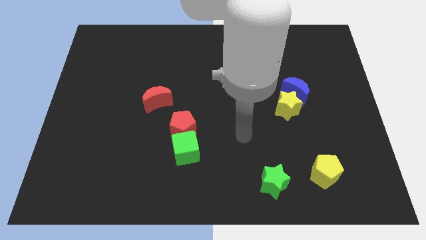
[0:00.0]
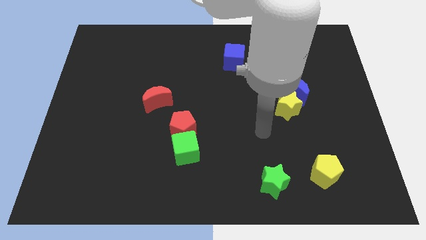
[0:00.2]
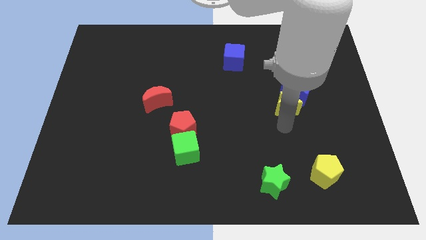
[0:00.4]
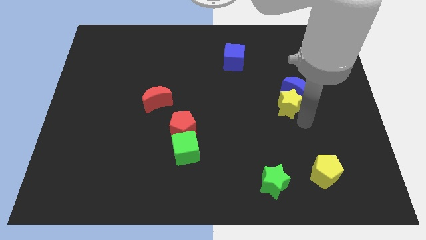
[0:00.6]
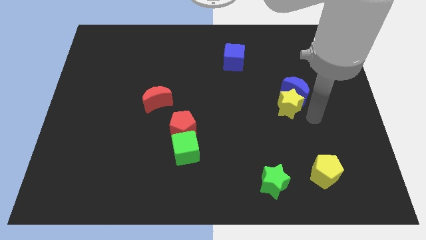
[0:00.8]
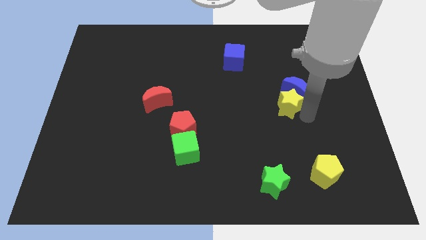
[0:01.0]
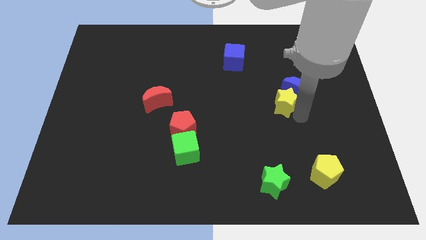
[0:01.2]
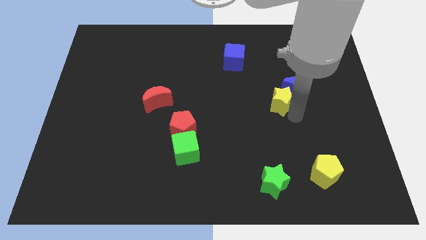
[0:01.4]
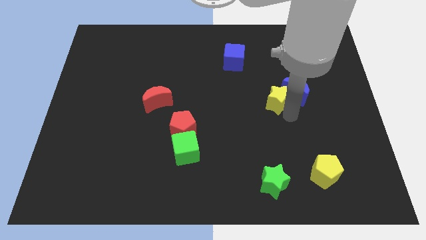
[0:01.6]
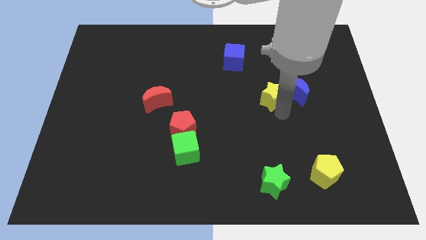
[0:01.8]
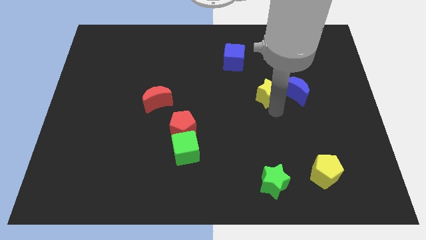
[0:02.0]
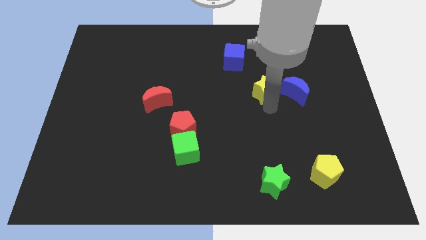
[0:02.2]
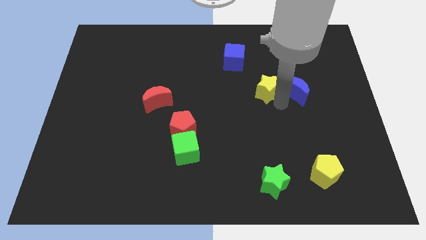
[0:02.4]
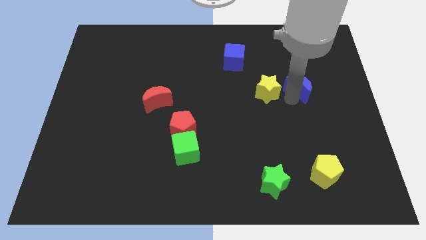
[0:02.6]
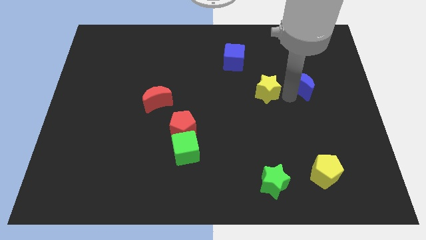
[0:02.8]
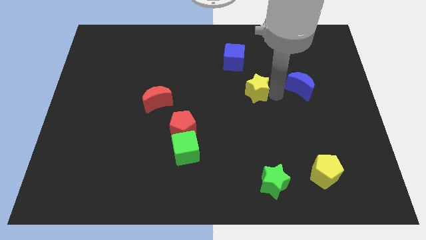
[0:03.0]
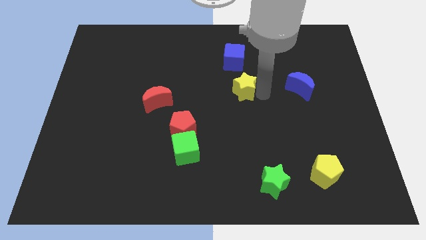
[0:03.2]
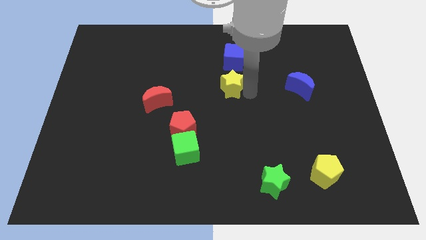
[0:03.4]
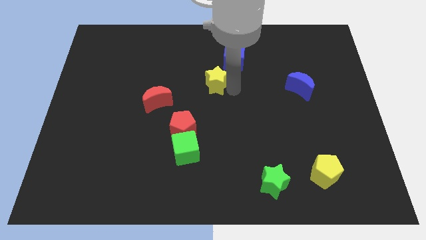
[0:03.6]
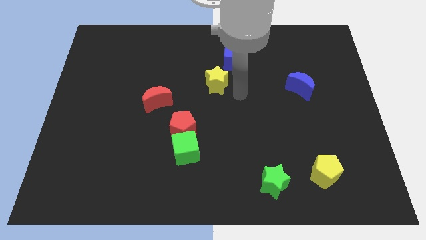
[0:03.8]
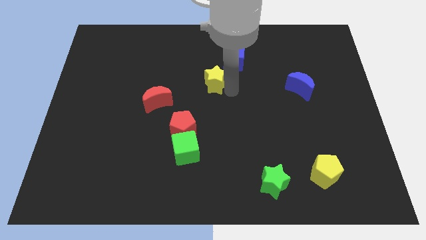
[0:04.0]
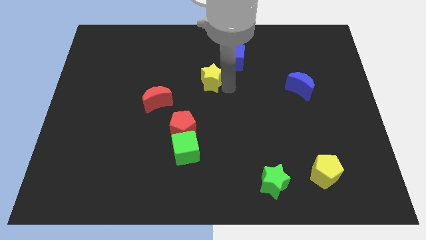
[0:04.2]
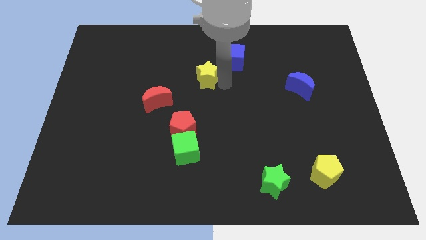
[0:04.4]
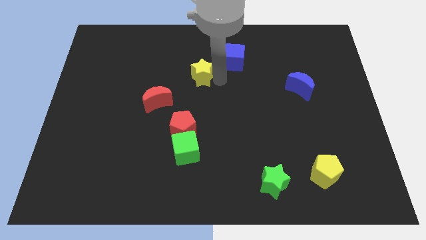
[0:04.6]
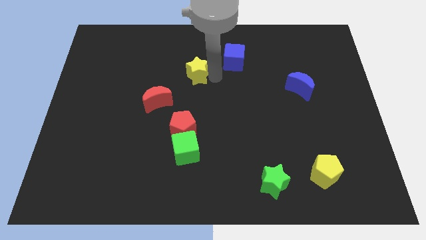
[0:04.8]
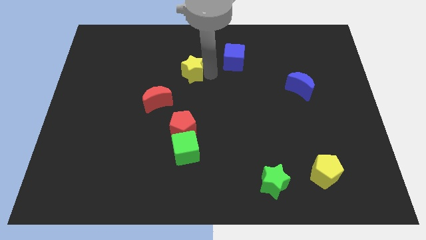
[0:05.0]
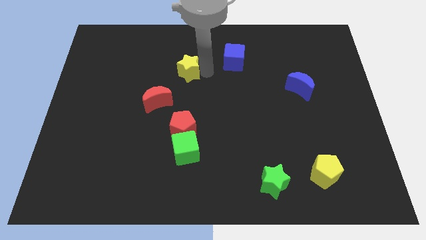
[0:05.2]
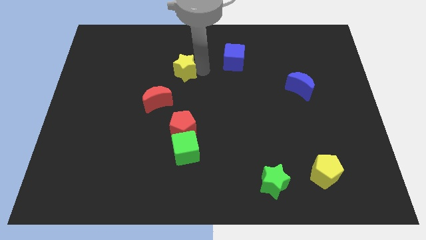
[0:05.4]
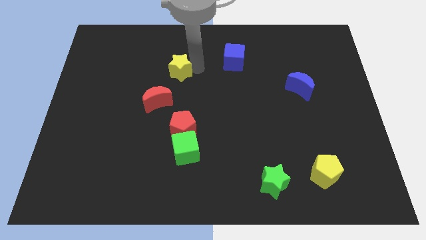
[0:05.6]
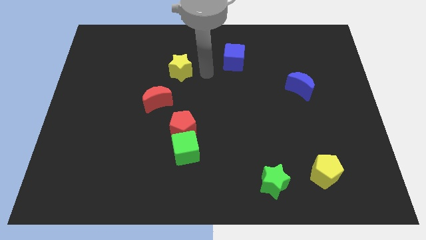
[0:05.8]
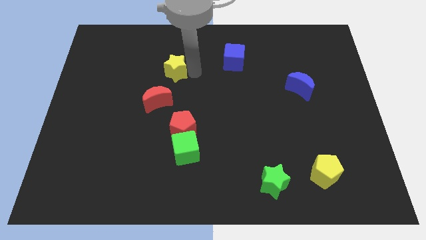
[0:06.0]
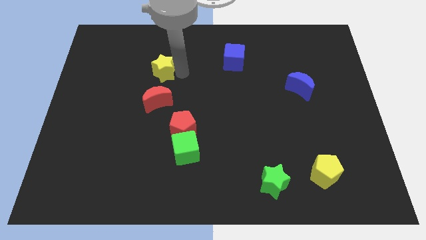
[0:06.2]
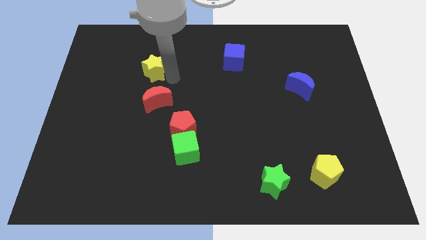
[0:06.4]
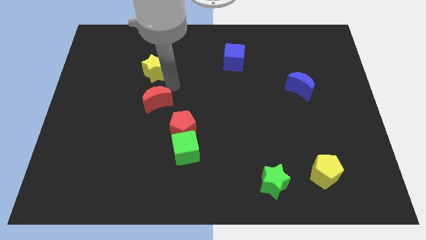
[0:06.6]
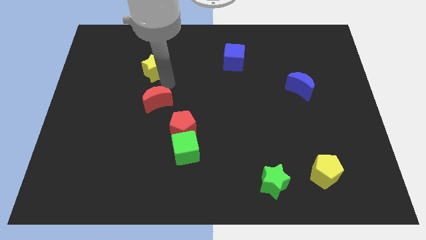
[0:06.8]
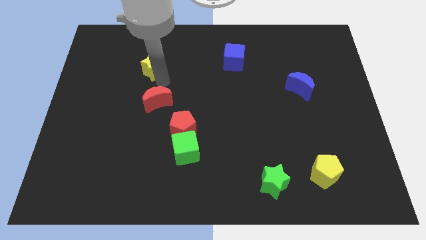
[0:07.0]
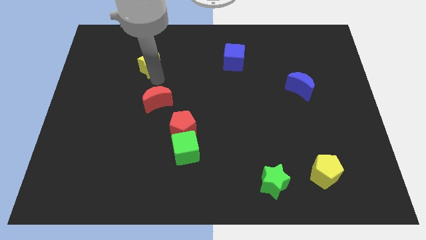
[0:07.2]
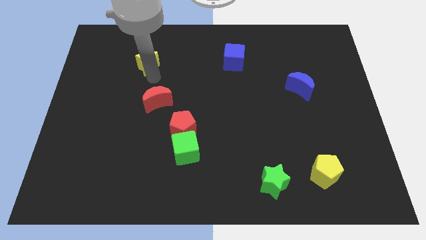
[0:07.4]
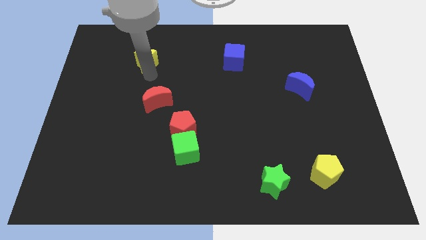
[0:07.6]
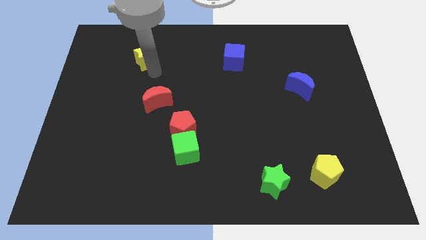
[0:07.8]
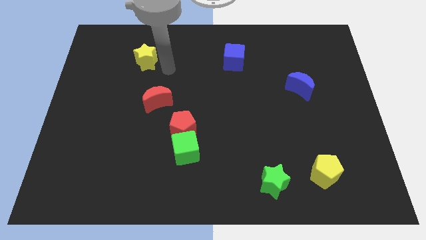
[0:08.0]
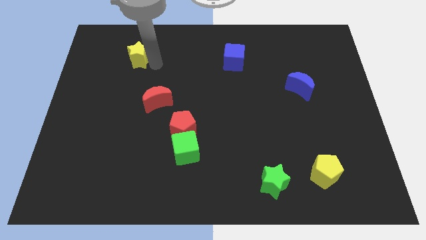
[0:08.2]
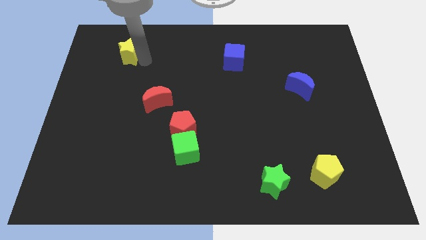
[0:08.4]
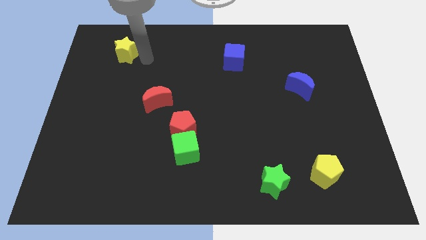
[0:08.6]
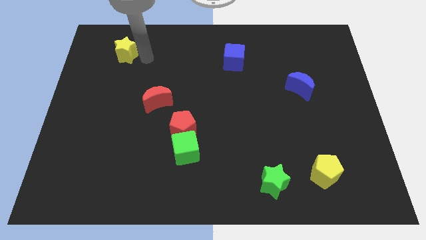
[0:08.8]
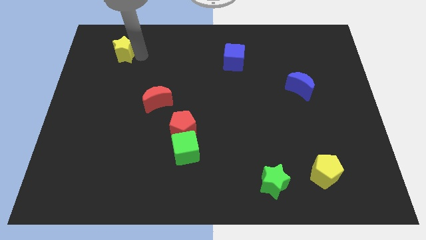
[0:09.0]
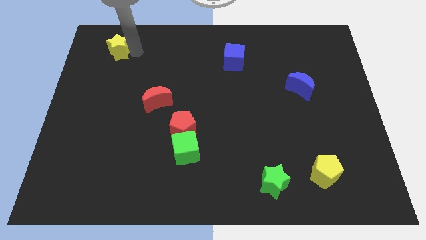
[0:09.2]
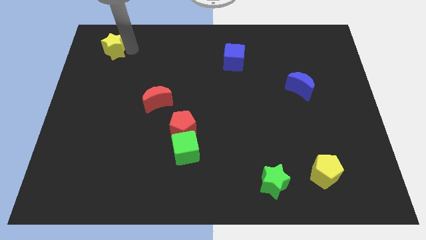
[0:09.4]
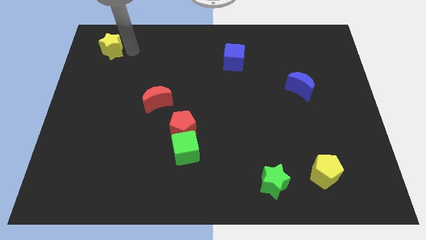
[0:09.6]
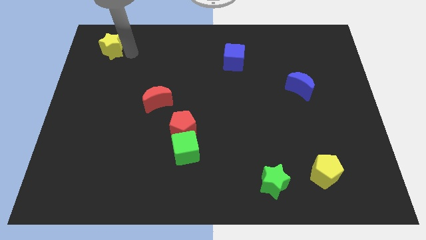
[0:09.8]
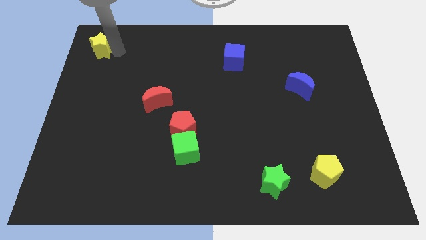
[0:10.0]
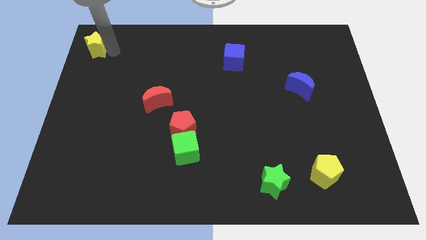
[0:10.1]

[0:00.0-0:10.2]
push the yellow star to the top left
